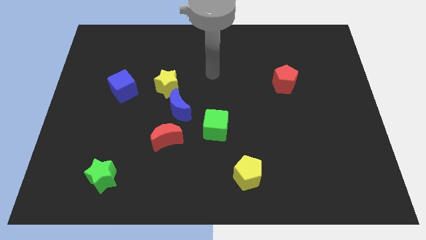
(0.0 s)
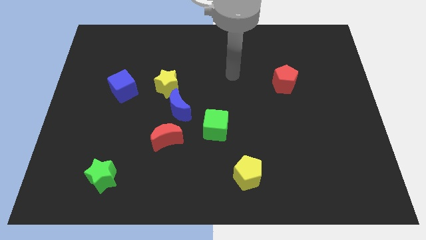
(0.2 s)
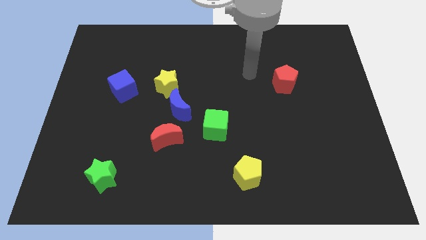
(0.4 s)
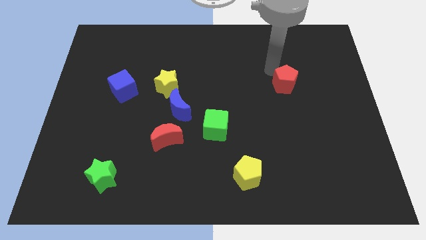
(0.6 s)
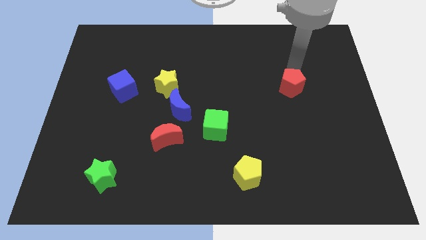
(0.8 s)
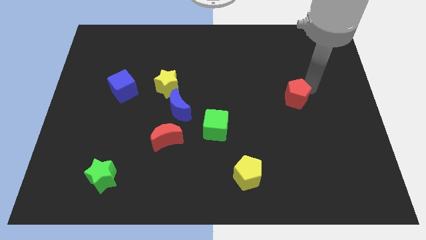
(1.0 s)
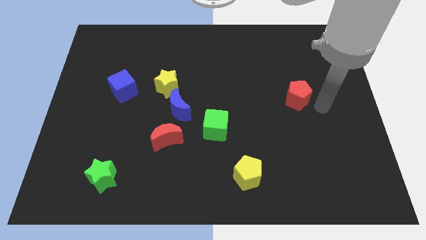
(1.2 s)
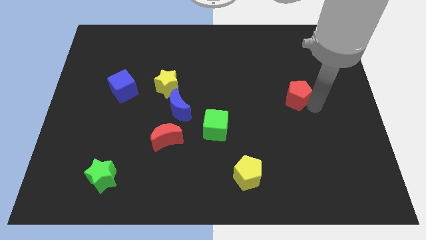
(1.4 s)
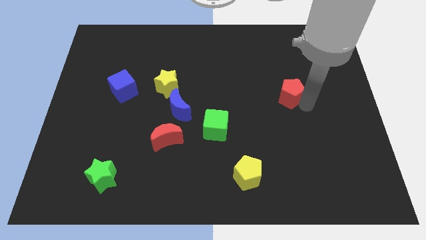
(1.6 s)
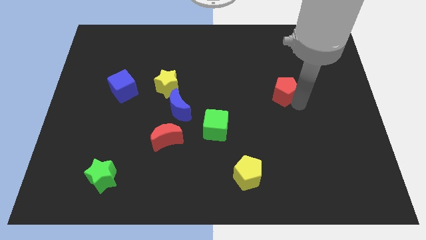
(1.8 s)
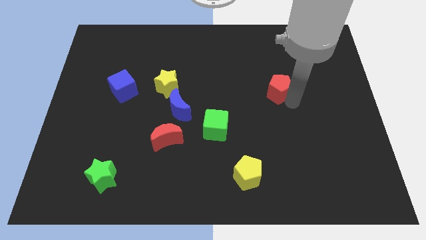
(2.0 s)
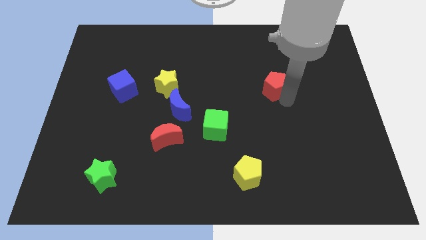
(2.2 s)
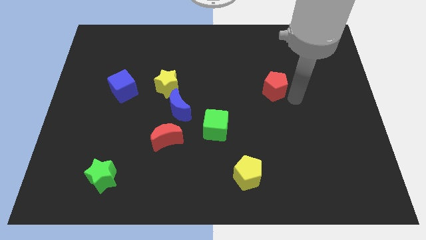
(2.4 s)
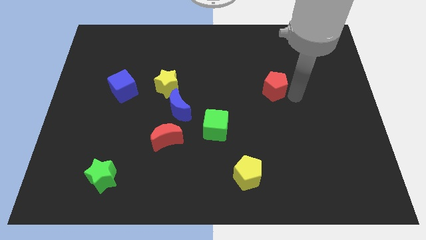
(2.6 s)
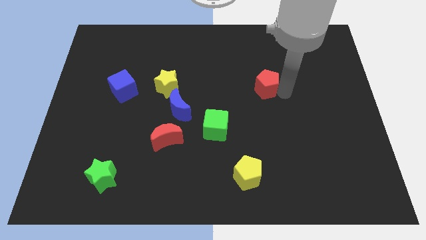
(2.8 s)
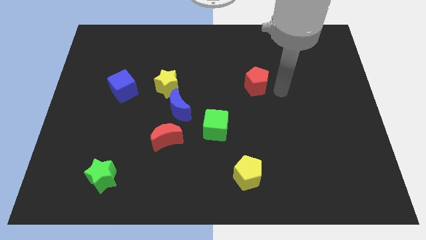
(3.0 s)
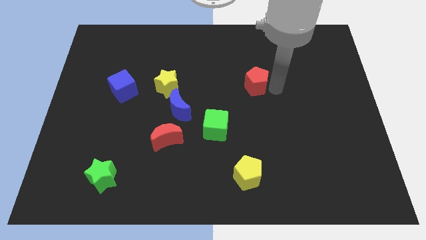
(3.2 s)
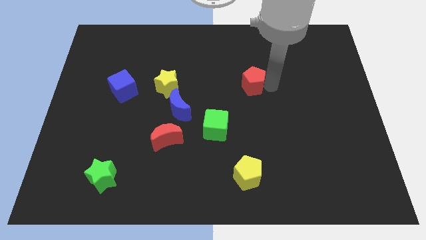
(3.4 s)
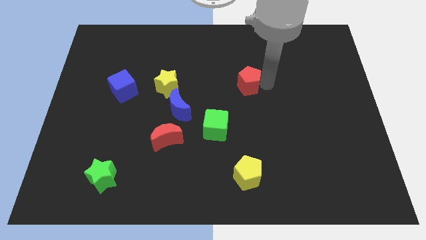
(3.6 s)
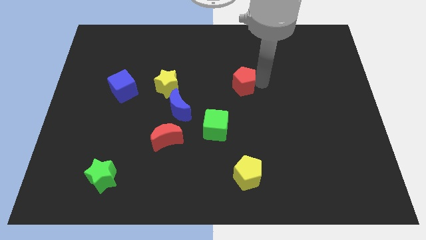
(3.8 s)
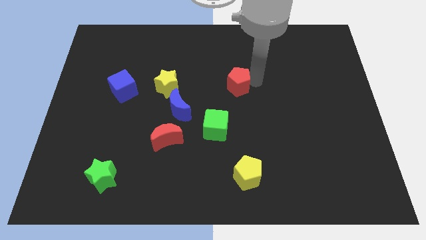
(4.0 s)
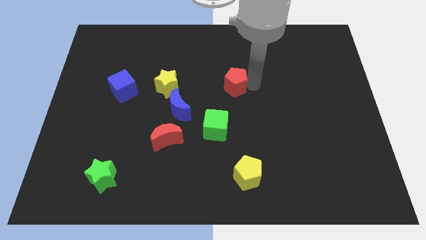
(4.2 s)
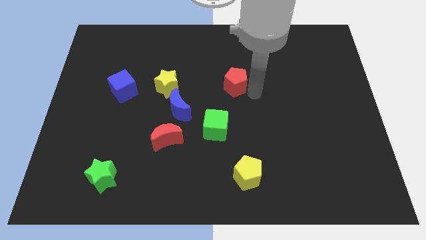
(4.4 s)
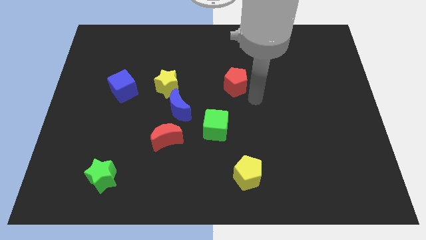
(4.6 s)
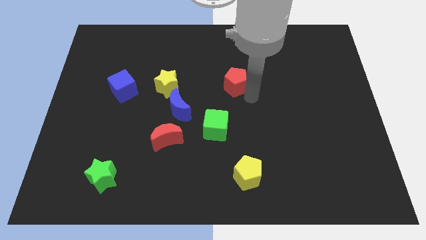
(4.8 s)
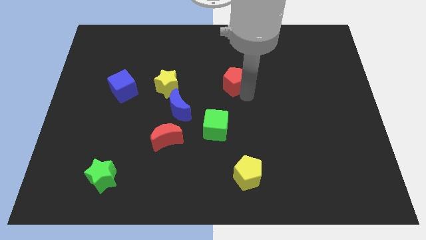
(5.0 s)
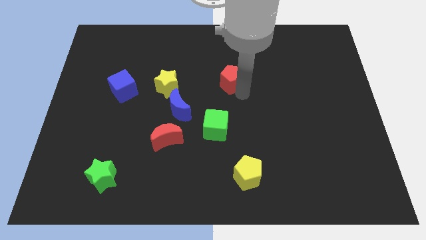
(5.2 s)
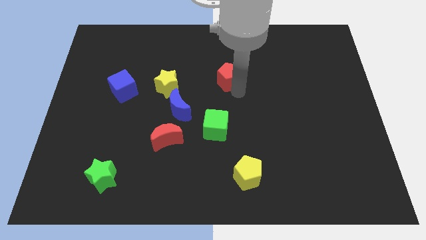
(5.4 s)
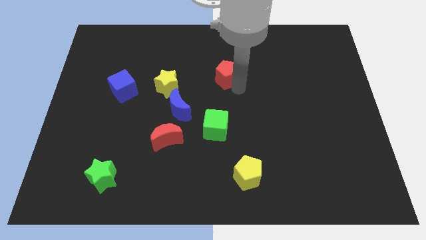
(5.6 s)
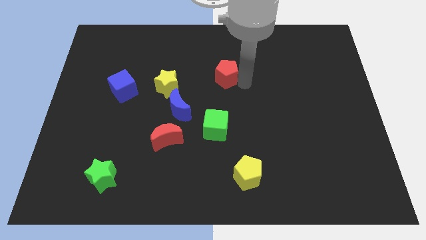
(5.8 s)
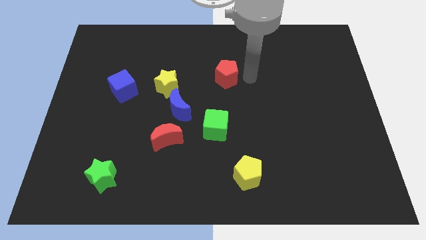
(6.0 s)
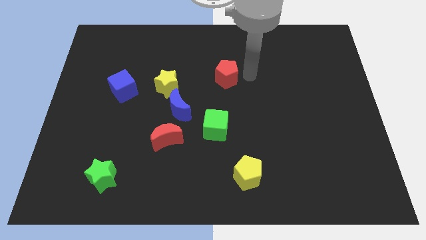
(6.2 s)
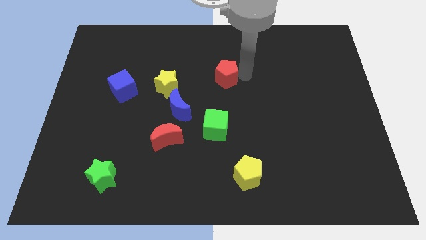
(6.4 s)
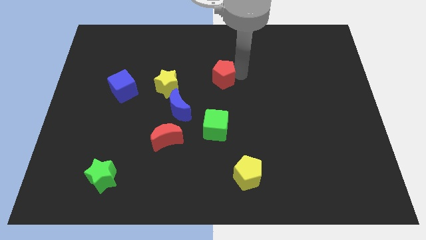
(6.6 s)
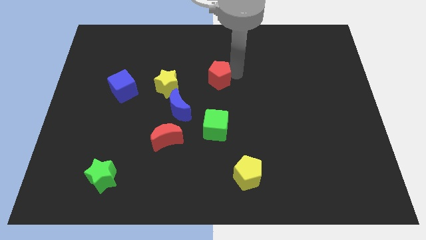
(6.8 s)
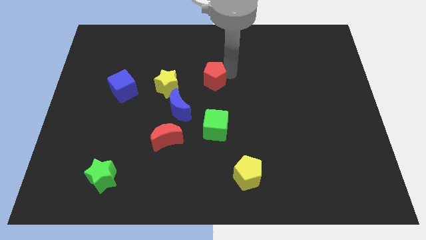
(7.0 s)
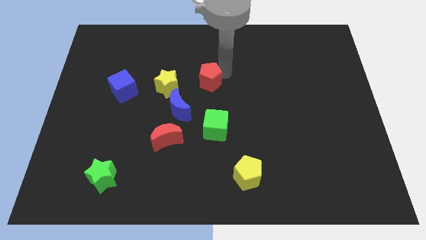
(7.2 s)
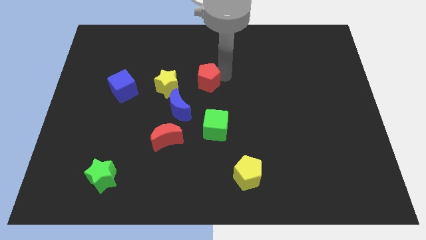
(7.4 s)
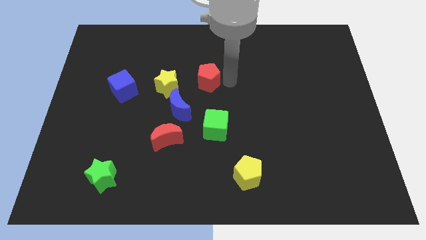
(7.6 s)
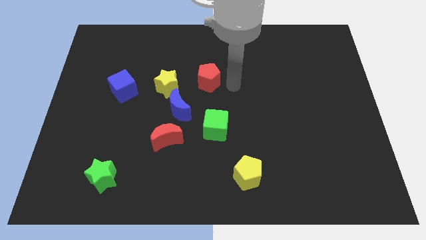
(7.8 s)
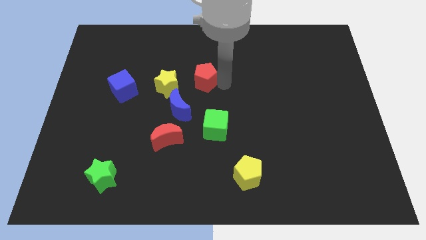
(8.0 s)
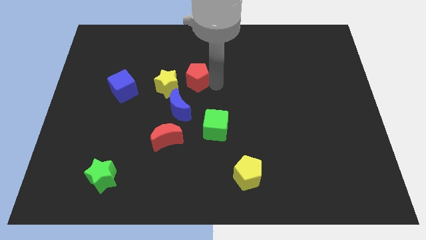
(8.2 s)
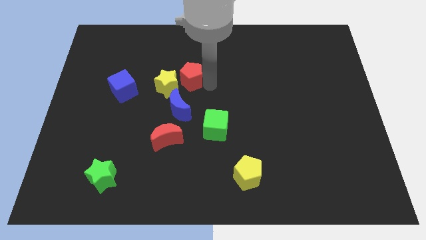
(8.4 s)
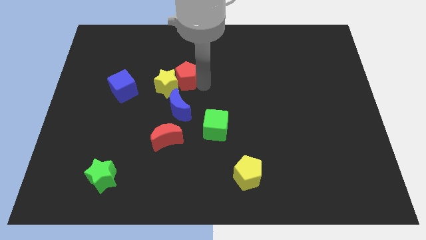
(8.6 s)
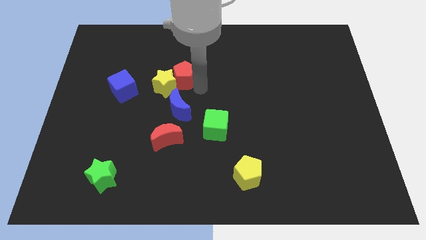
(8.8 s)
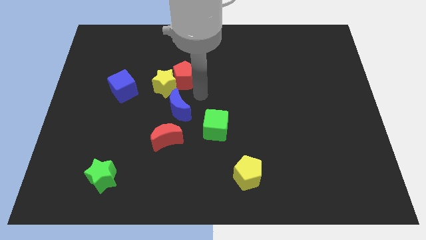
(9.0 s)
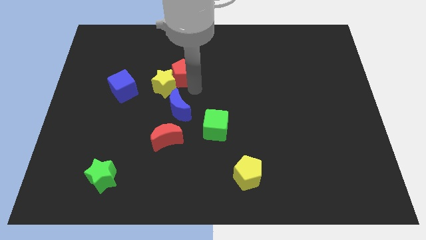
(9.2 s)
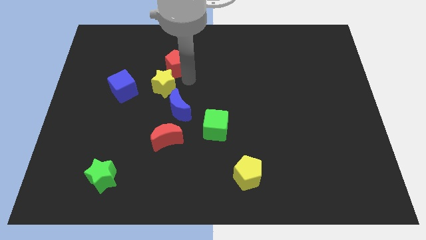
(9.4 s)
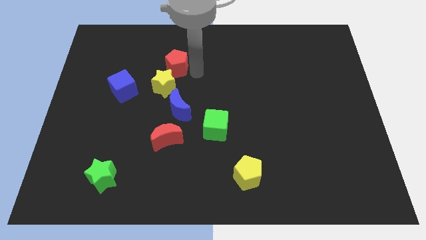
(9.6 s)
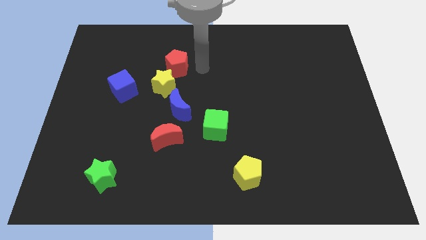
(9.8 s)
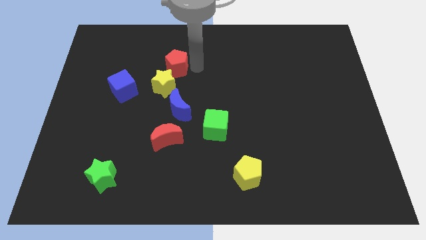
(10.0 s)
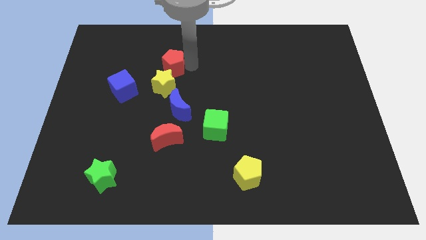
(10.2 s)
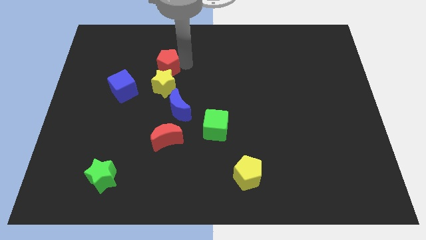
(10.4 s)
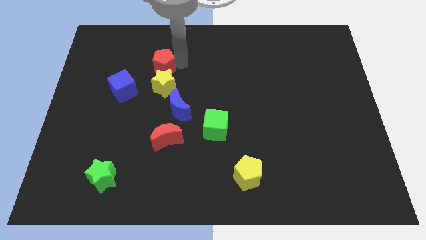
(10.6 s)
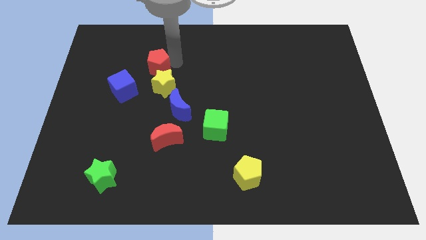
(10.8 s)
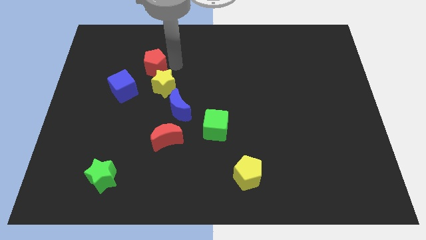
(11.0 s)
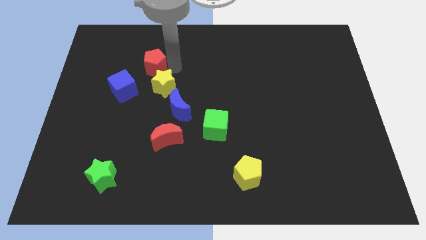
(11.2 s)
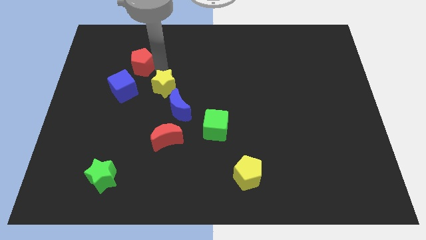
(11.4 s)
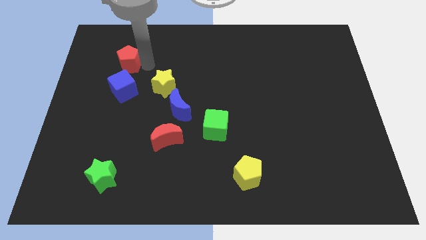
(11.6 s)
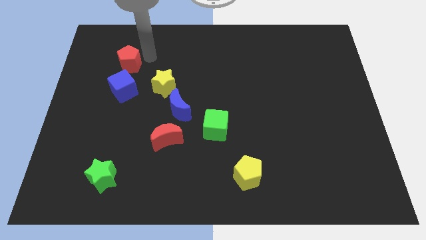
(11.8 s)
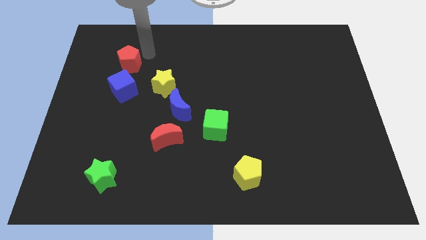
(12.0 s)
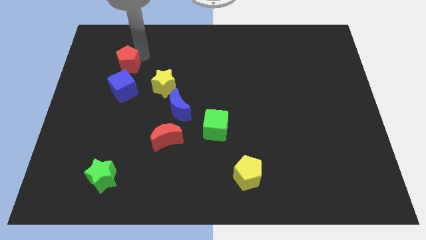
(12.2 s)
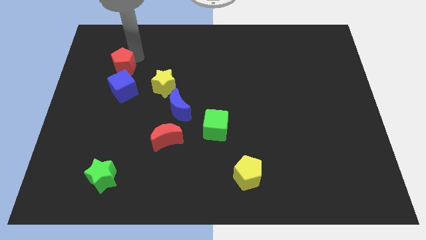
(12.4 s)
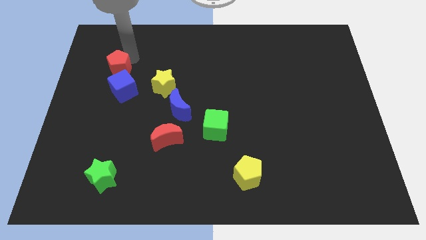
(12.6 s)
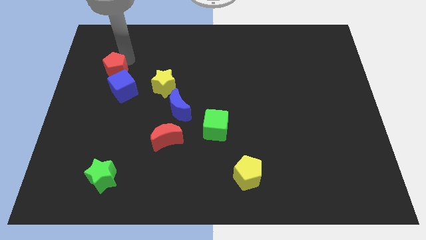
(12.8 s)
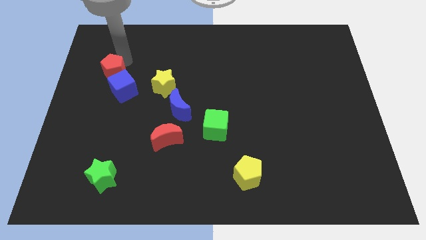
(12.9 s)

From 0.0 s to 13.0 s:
put the red pentagon just left of the yellow star
